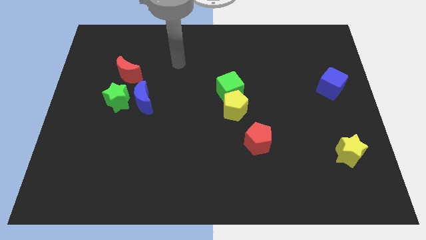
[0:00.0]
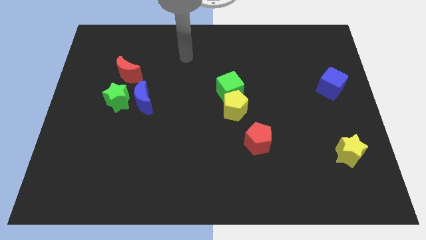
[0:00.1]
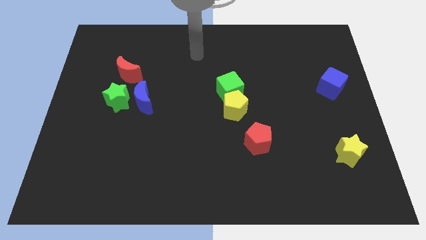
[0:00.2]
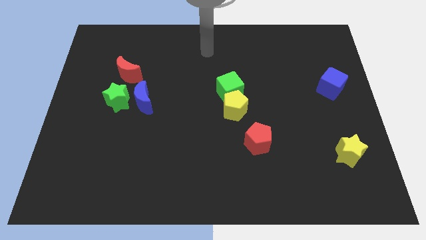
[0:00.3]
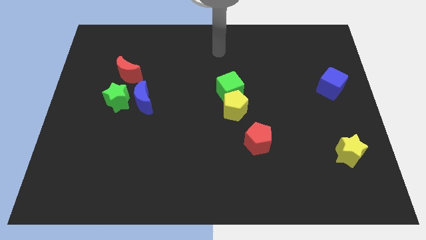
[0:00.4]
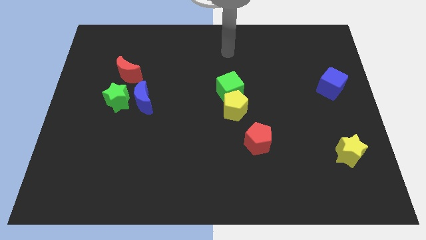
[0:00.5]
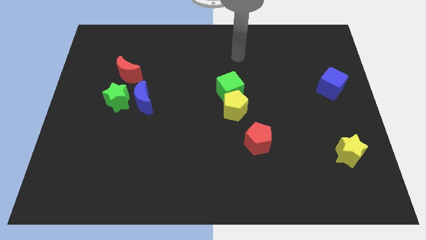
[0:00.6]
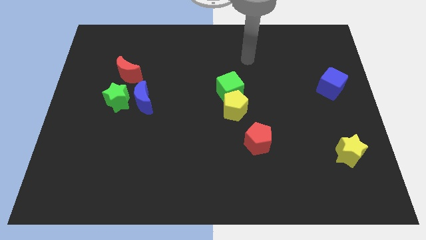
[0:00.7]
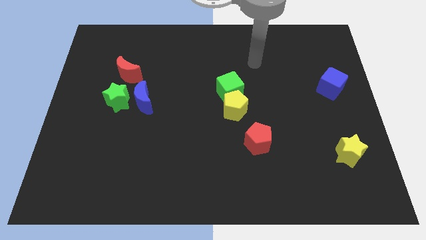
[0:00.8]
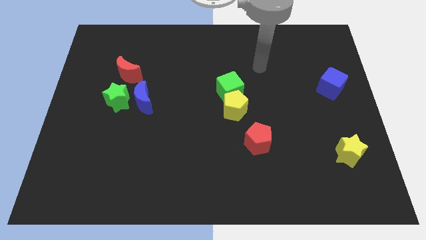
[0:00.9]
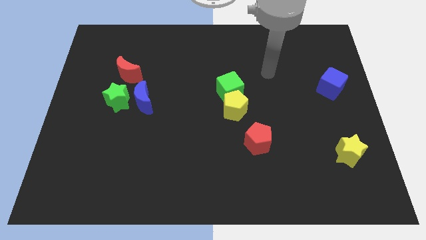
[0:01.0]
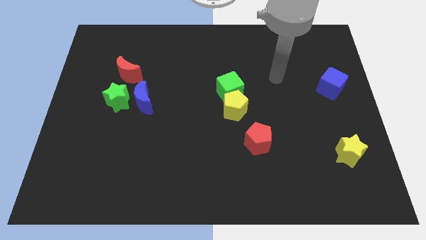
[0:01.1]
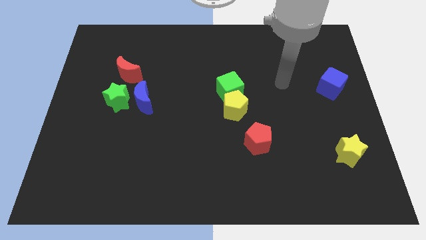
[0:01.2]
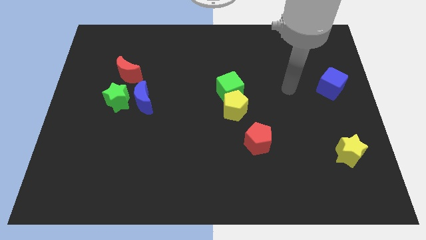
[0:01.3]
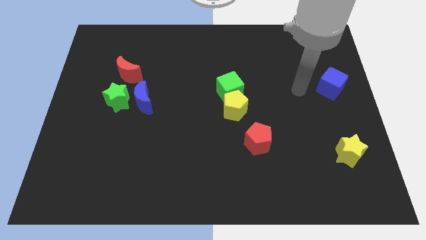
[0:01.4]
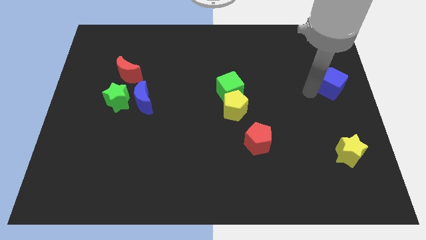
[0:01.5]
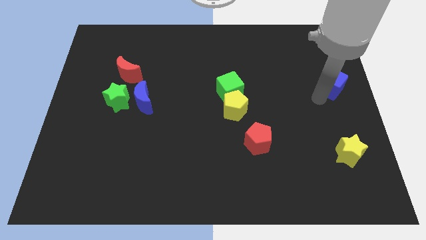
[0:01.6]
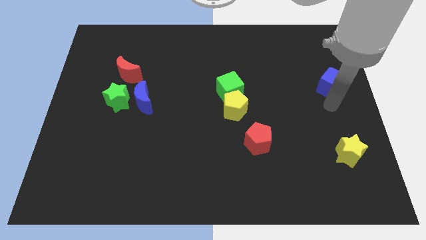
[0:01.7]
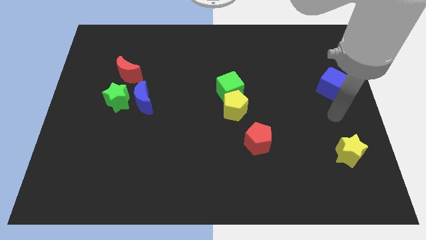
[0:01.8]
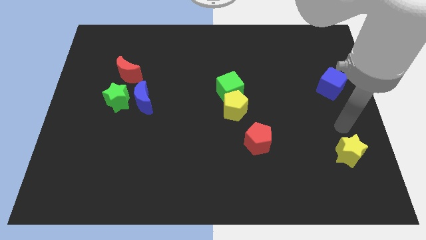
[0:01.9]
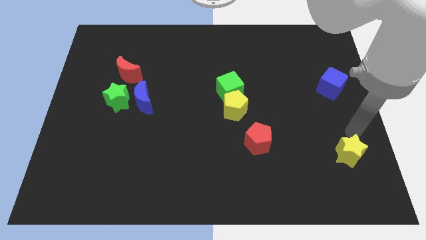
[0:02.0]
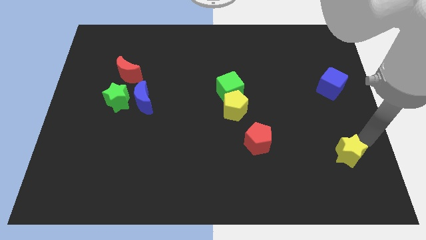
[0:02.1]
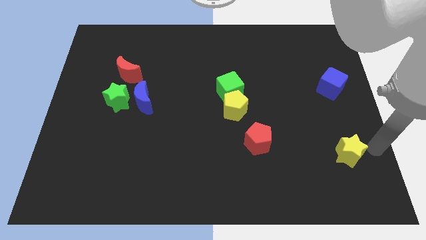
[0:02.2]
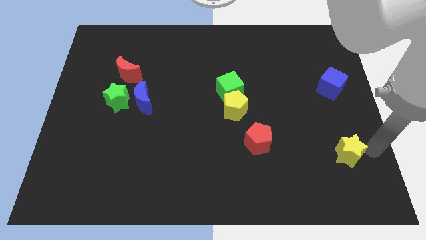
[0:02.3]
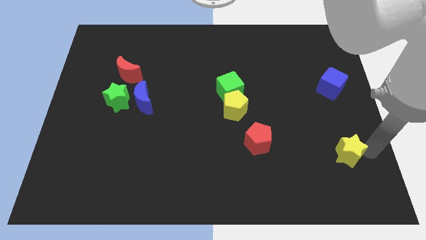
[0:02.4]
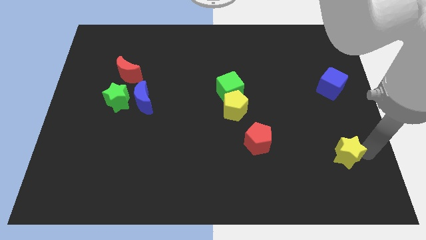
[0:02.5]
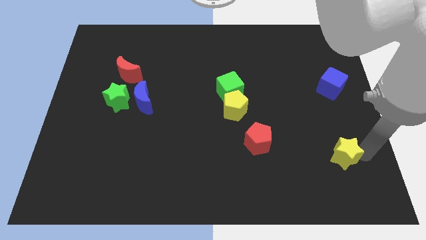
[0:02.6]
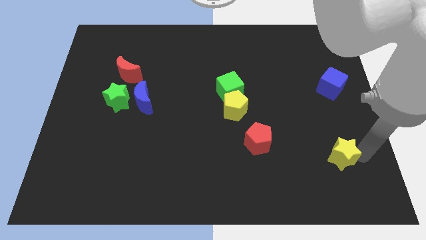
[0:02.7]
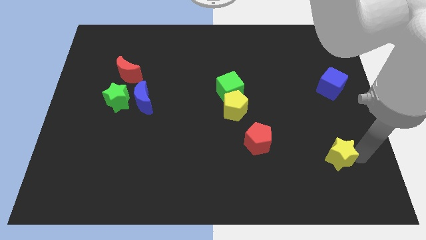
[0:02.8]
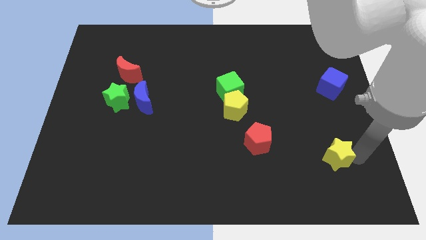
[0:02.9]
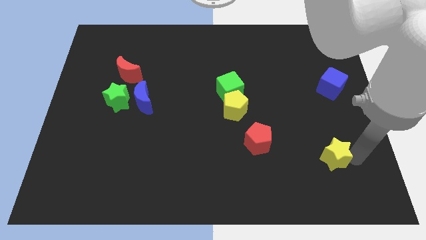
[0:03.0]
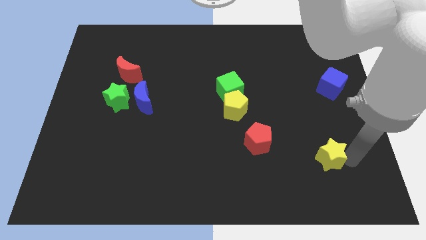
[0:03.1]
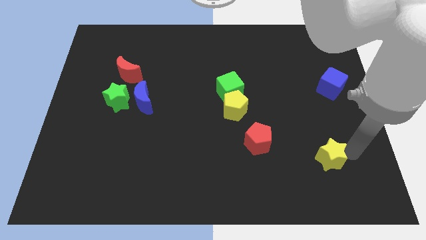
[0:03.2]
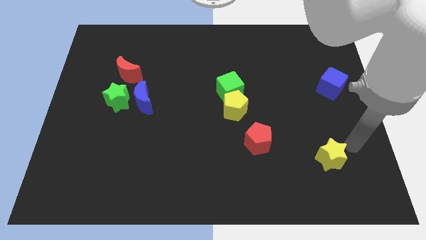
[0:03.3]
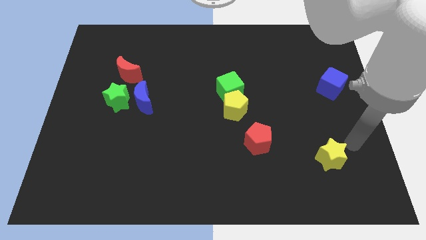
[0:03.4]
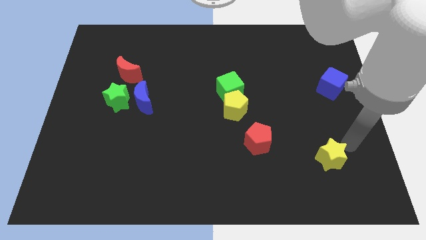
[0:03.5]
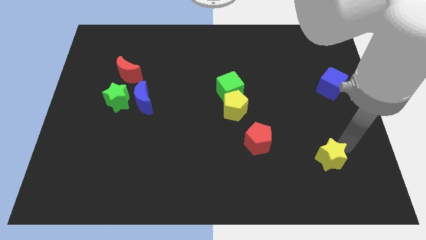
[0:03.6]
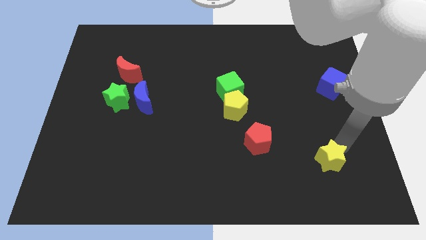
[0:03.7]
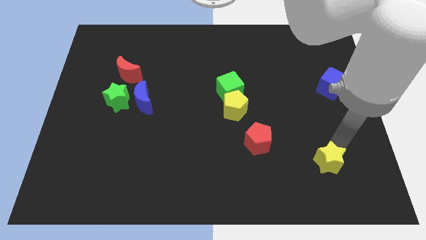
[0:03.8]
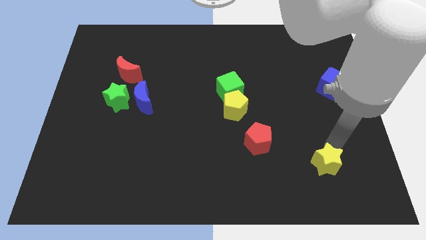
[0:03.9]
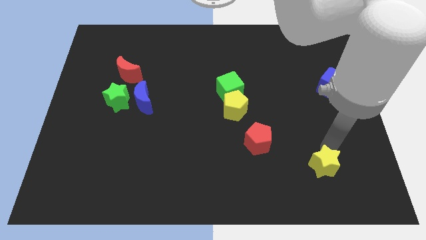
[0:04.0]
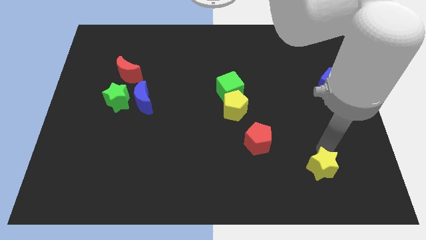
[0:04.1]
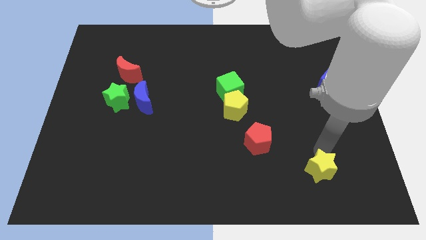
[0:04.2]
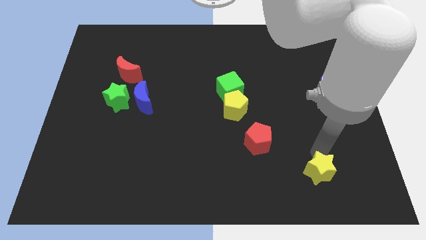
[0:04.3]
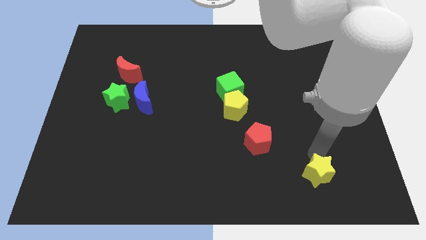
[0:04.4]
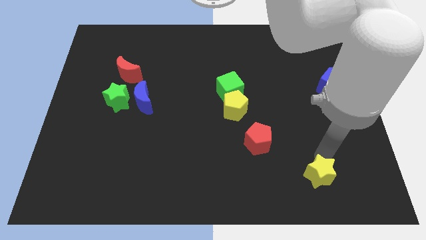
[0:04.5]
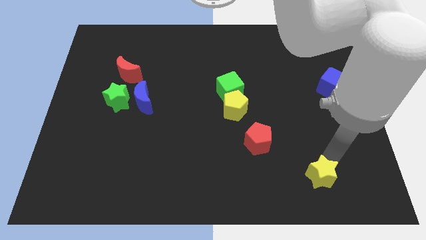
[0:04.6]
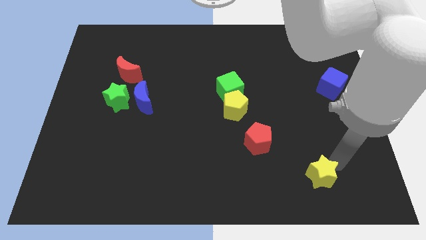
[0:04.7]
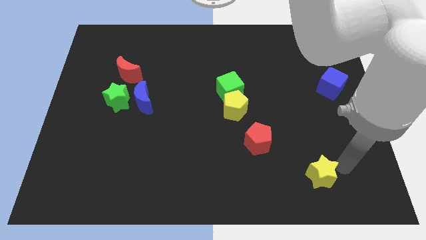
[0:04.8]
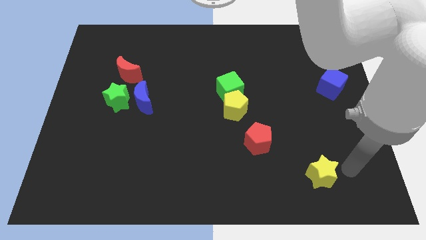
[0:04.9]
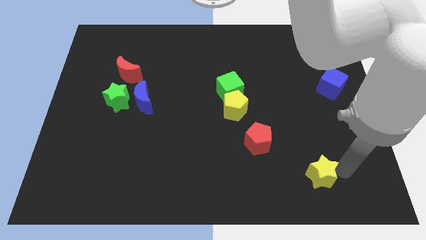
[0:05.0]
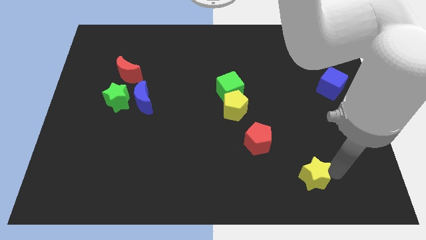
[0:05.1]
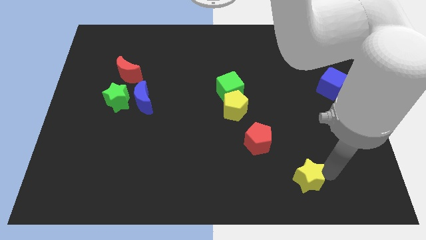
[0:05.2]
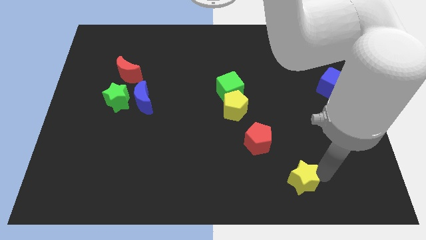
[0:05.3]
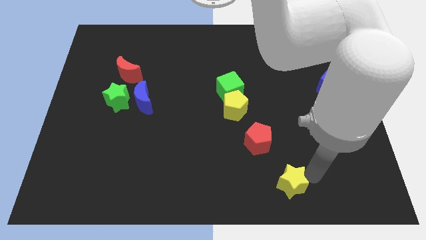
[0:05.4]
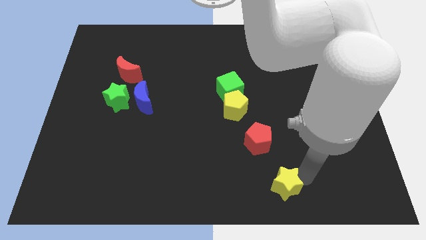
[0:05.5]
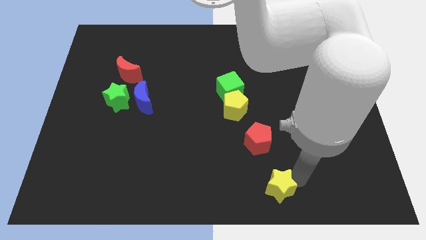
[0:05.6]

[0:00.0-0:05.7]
put the yellow star to the bottom side
